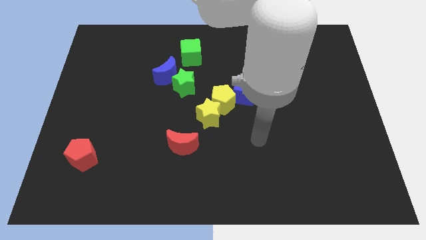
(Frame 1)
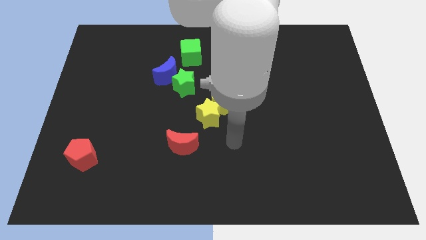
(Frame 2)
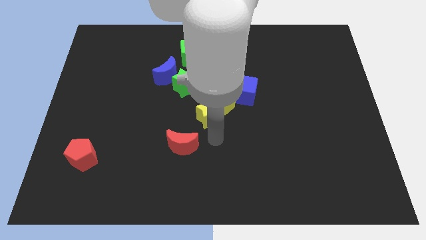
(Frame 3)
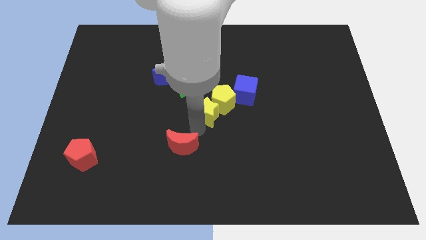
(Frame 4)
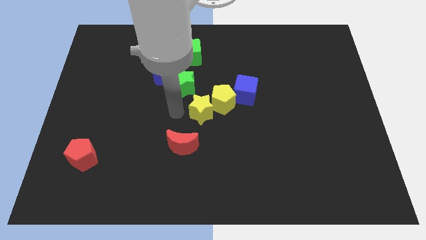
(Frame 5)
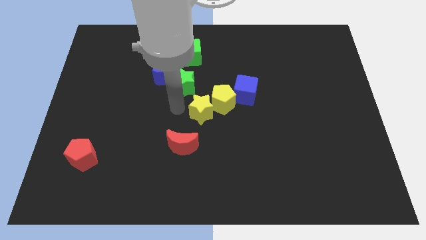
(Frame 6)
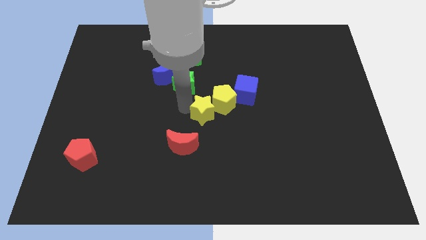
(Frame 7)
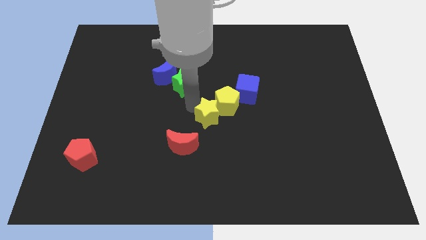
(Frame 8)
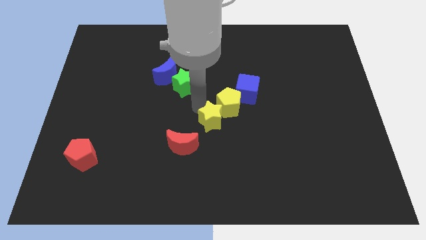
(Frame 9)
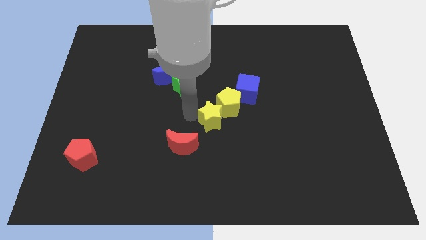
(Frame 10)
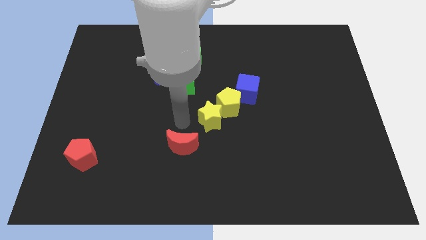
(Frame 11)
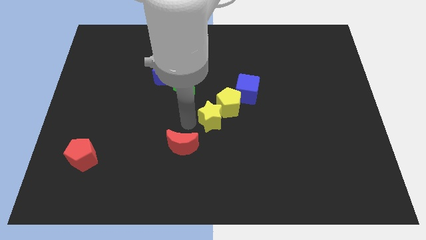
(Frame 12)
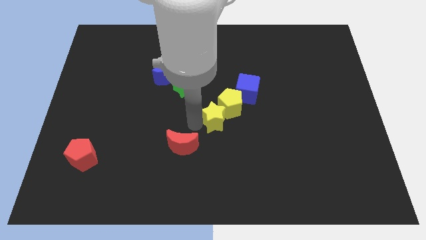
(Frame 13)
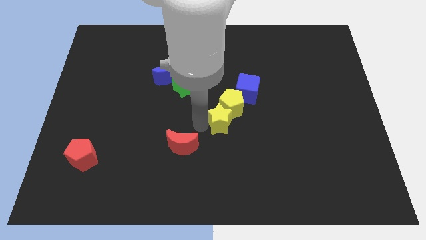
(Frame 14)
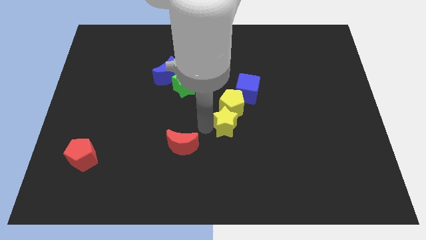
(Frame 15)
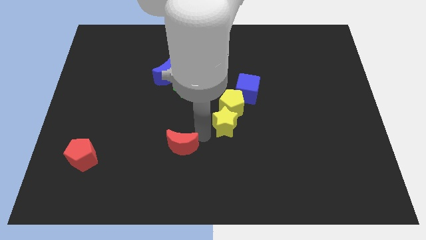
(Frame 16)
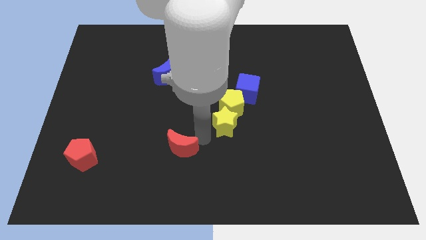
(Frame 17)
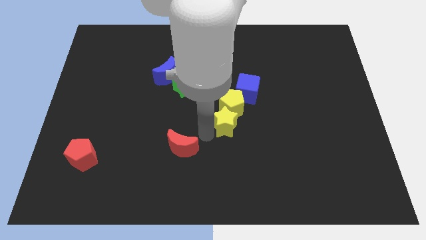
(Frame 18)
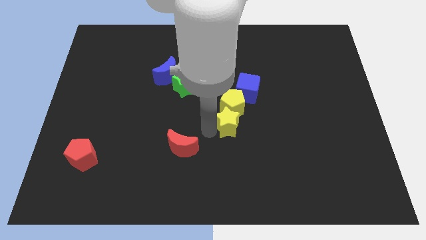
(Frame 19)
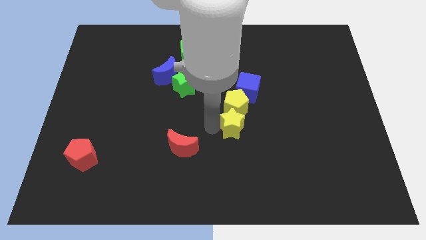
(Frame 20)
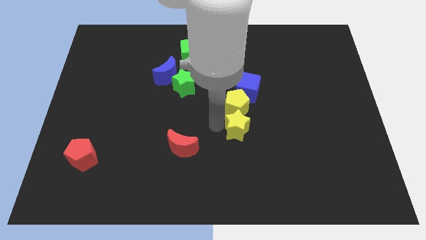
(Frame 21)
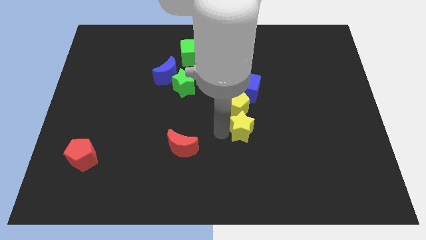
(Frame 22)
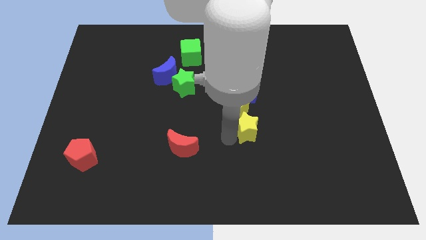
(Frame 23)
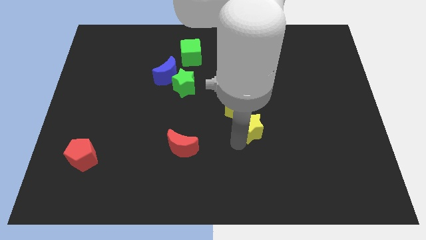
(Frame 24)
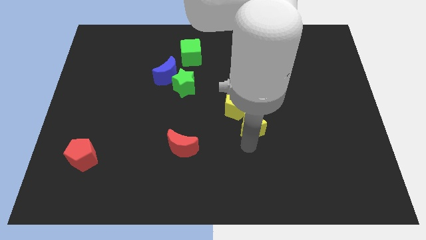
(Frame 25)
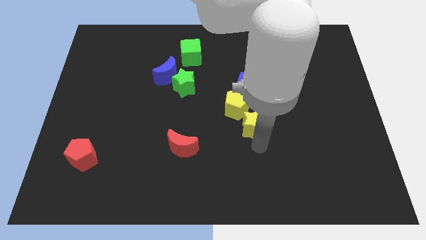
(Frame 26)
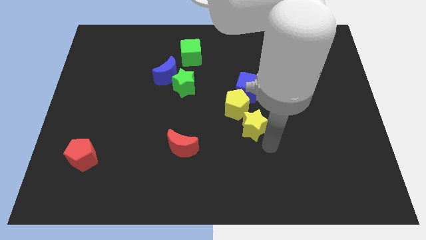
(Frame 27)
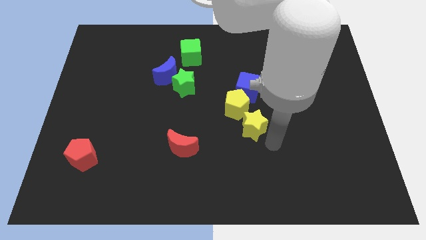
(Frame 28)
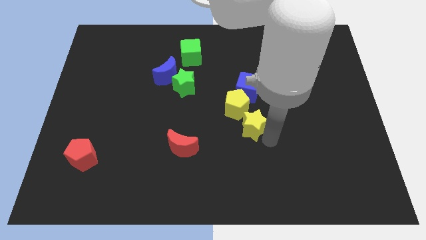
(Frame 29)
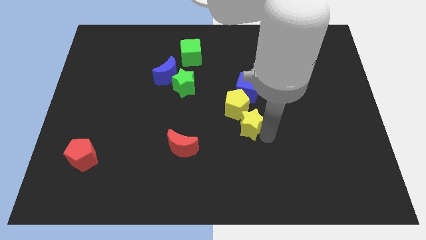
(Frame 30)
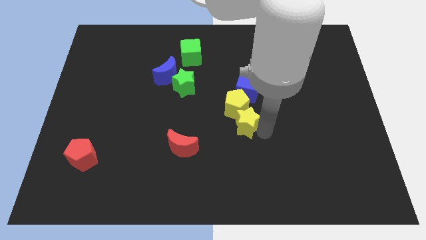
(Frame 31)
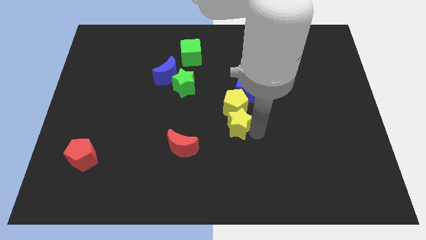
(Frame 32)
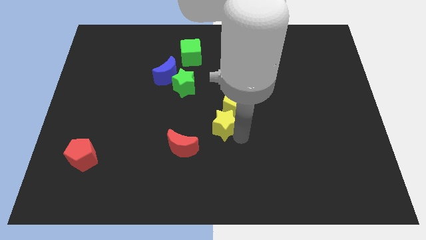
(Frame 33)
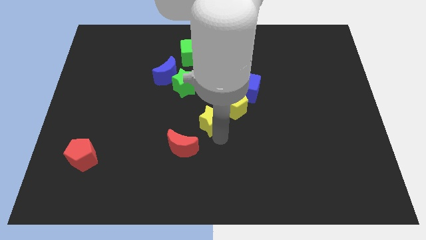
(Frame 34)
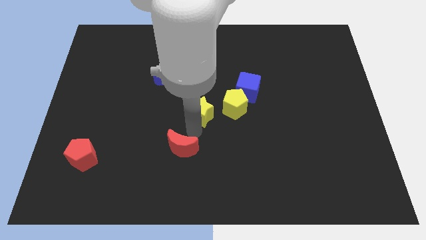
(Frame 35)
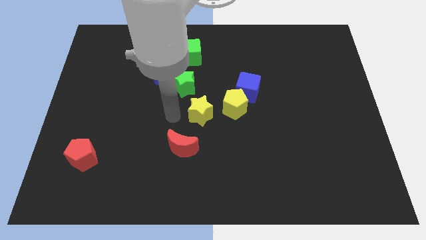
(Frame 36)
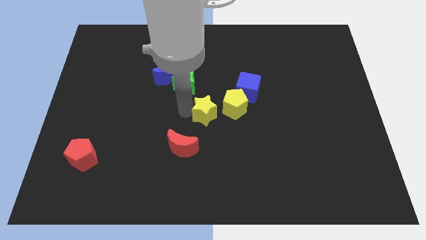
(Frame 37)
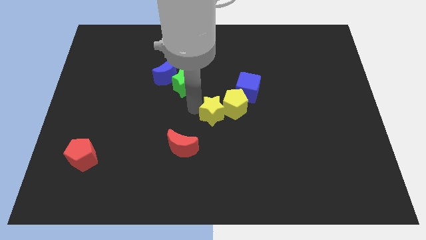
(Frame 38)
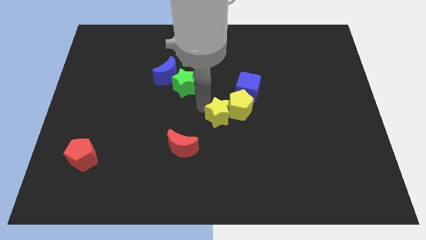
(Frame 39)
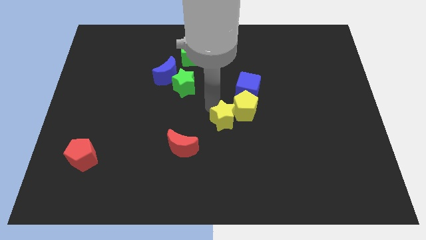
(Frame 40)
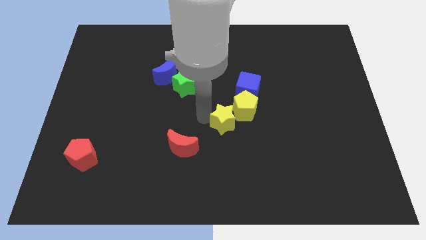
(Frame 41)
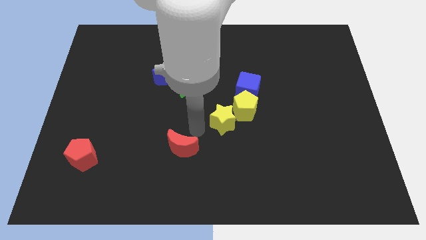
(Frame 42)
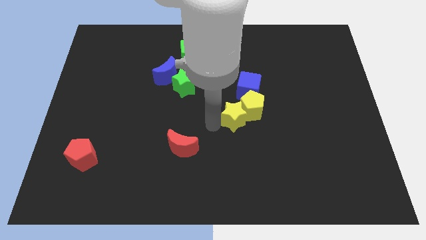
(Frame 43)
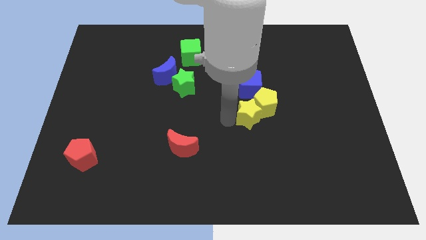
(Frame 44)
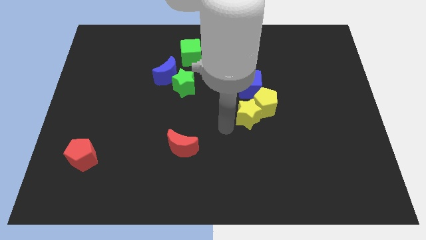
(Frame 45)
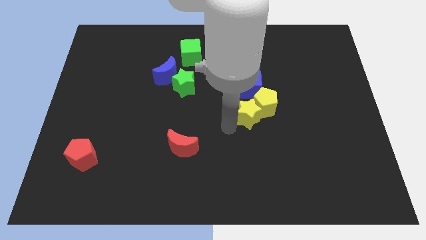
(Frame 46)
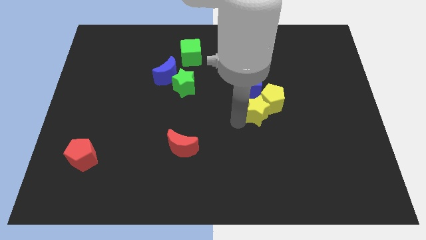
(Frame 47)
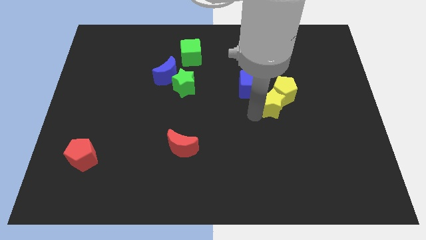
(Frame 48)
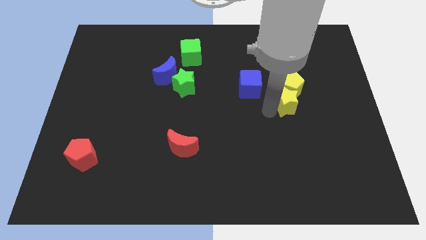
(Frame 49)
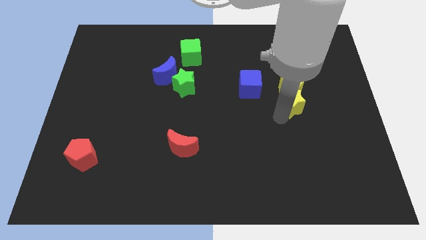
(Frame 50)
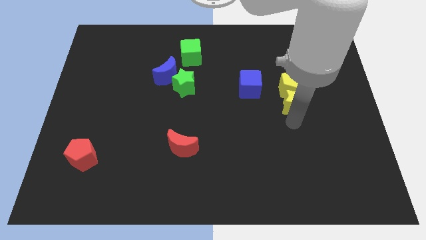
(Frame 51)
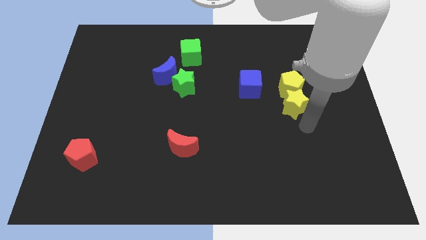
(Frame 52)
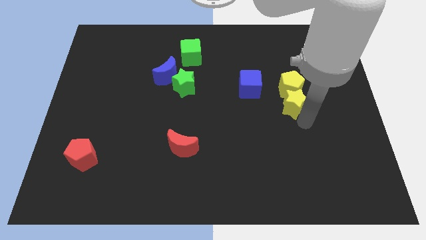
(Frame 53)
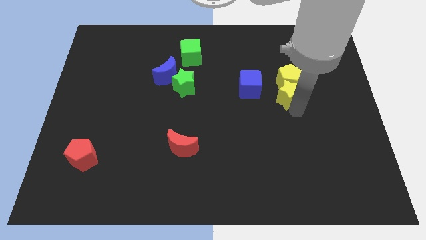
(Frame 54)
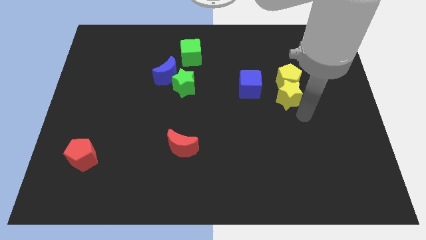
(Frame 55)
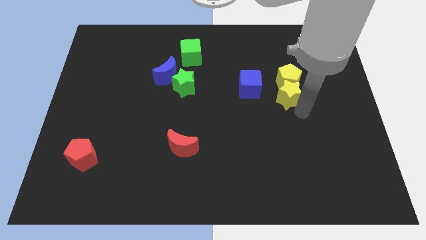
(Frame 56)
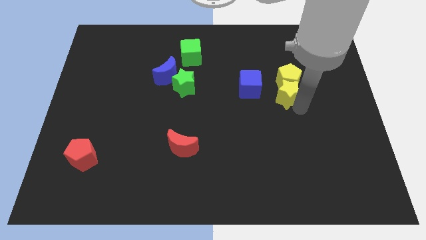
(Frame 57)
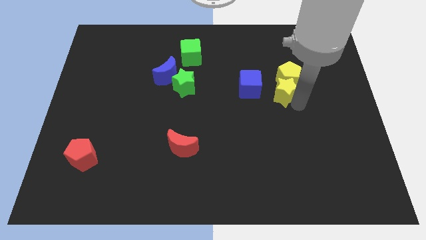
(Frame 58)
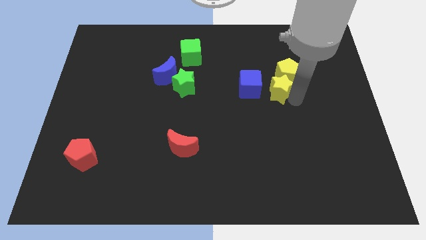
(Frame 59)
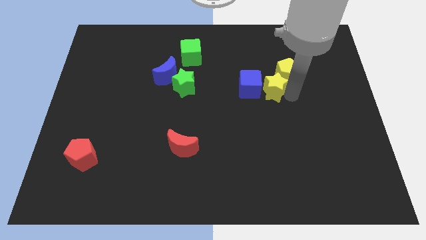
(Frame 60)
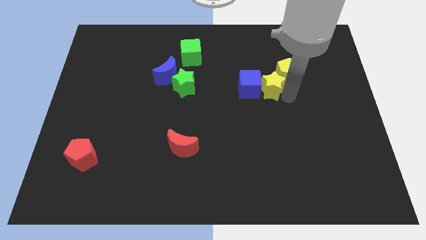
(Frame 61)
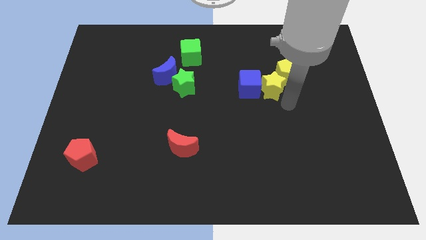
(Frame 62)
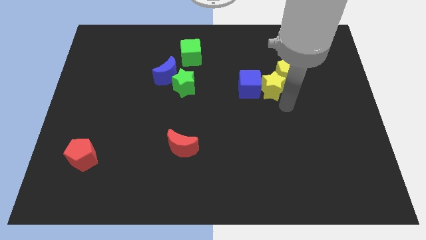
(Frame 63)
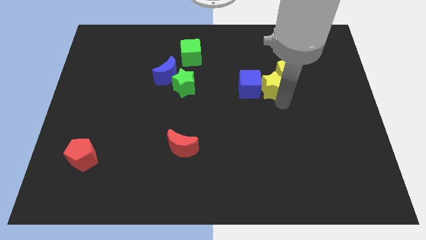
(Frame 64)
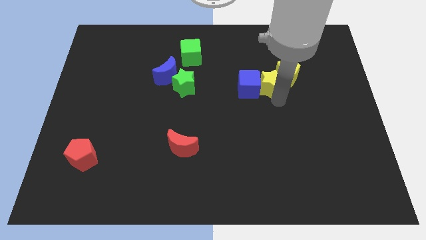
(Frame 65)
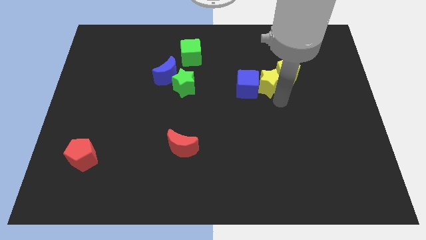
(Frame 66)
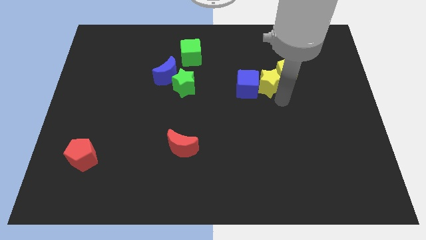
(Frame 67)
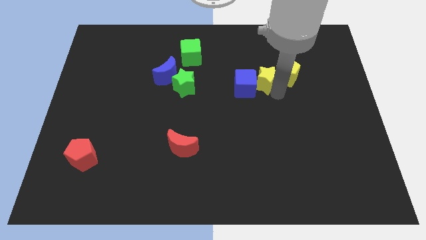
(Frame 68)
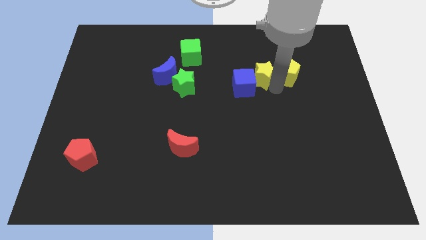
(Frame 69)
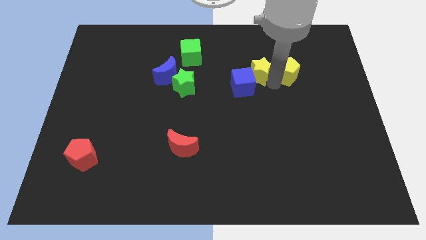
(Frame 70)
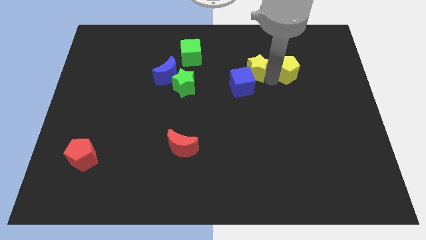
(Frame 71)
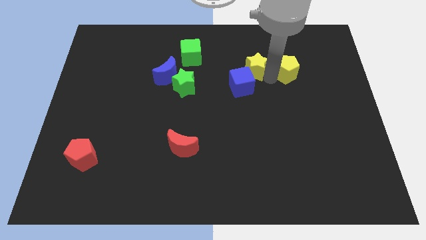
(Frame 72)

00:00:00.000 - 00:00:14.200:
slide the yellow star up a little bit

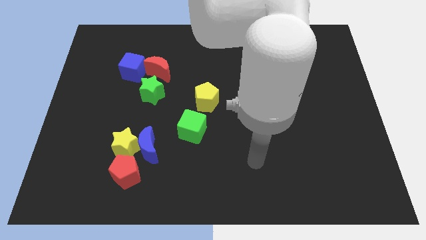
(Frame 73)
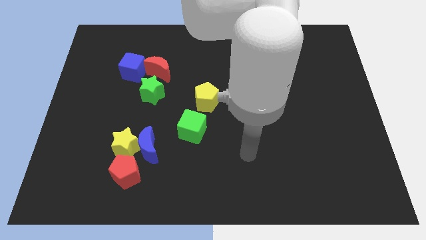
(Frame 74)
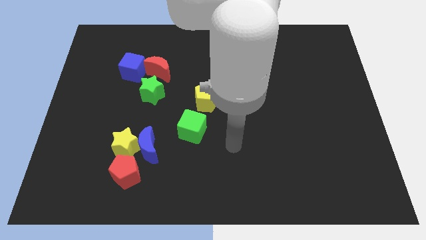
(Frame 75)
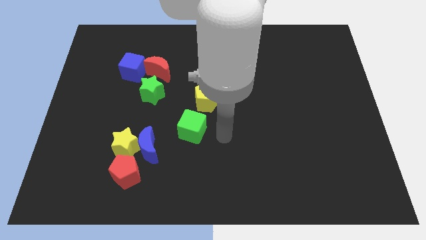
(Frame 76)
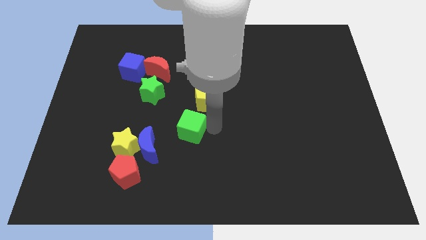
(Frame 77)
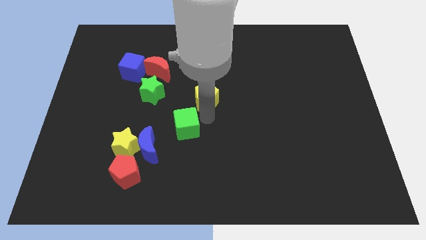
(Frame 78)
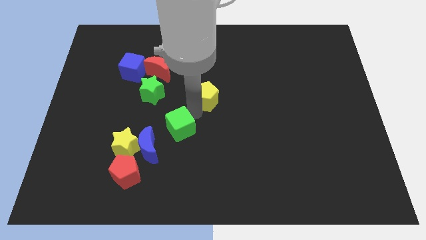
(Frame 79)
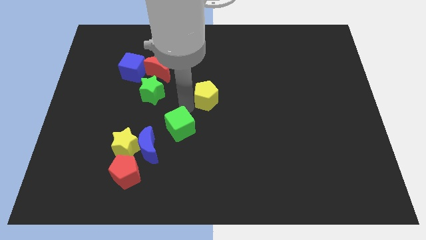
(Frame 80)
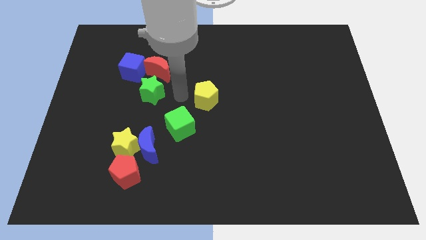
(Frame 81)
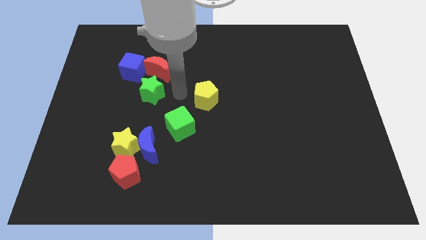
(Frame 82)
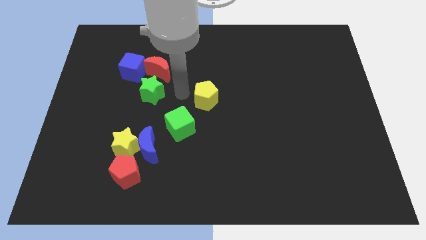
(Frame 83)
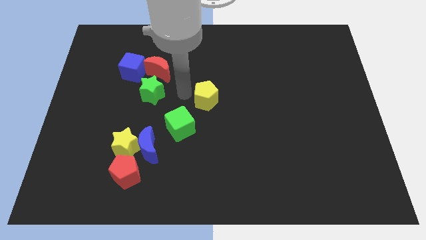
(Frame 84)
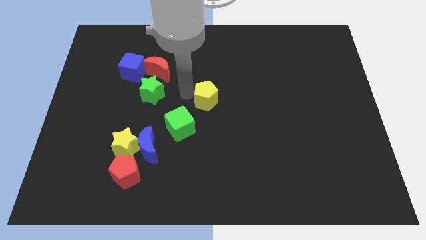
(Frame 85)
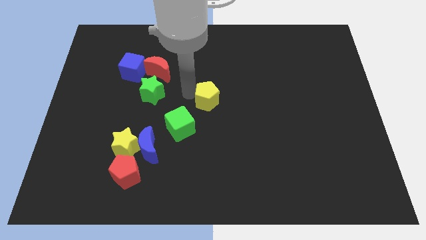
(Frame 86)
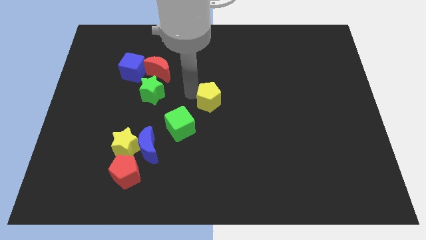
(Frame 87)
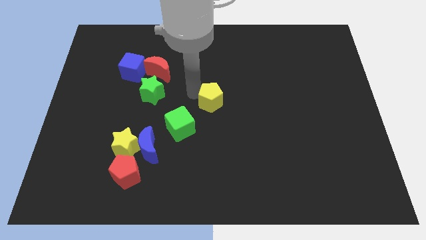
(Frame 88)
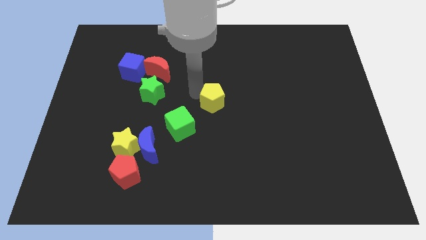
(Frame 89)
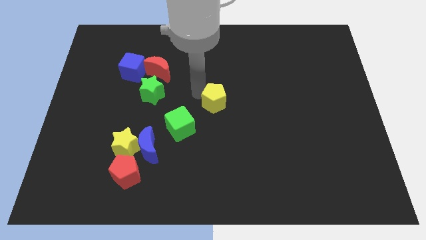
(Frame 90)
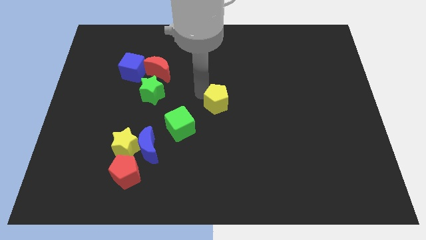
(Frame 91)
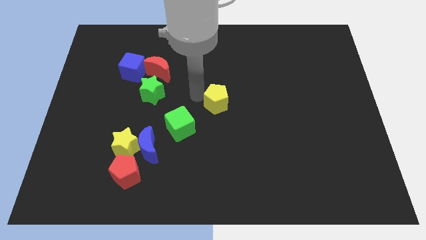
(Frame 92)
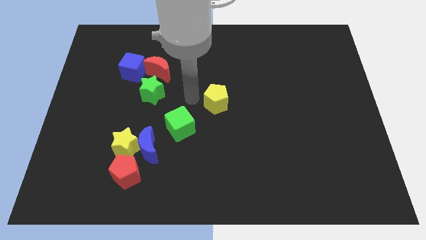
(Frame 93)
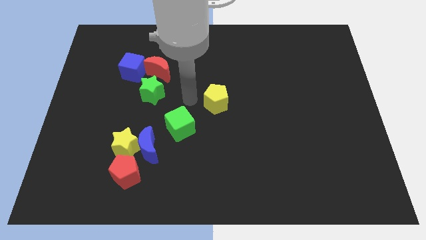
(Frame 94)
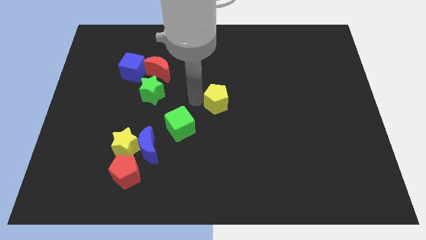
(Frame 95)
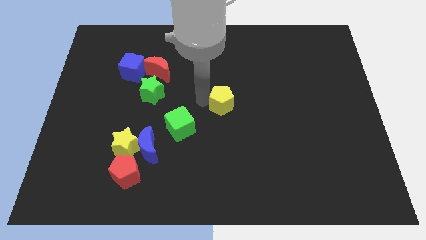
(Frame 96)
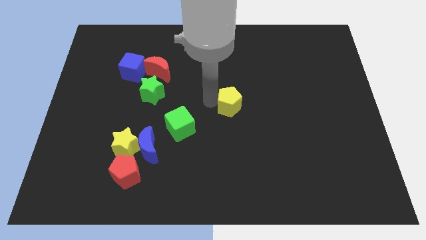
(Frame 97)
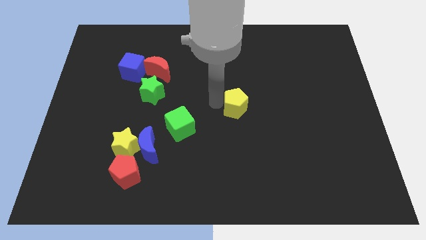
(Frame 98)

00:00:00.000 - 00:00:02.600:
move the yellow pentagon somewhat to the right
